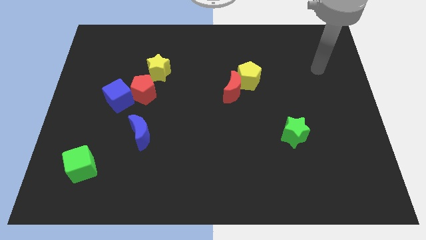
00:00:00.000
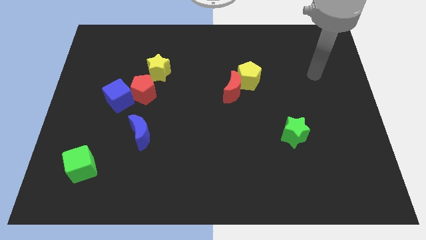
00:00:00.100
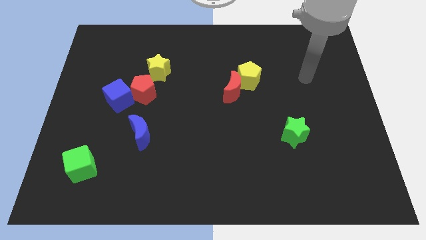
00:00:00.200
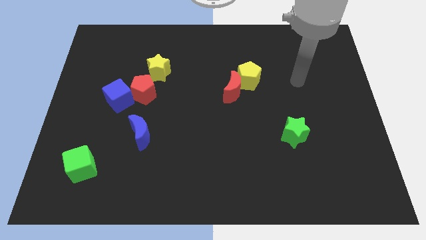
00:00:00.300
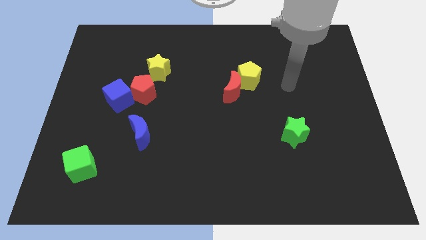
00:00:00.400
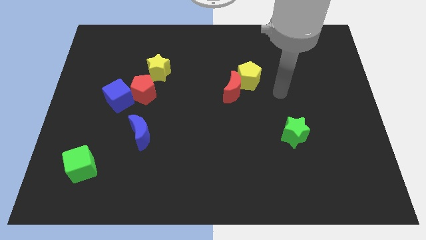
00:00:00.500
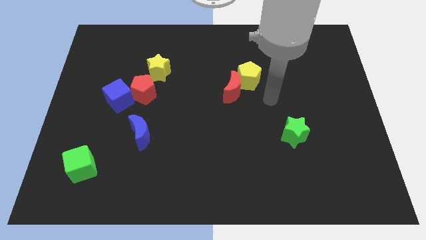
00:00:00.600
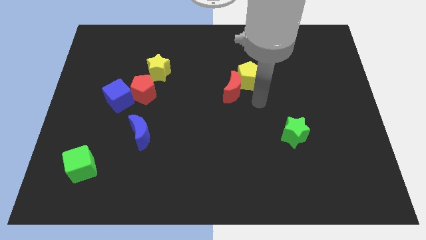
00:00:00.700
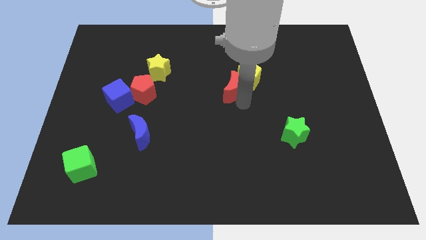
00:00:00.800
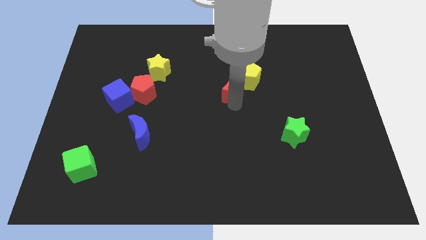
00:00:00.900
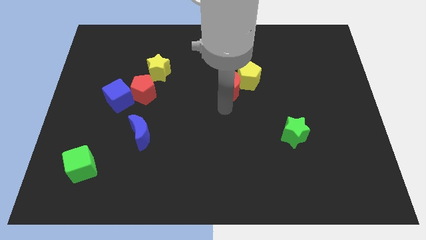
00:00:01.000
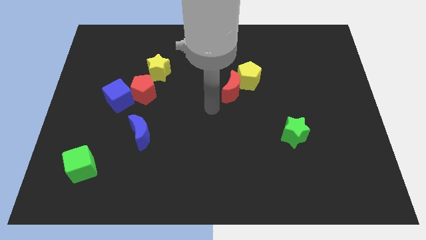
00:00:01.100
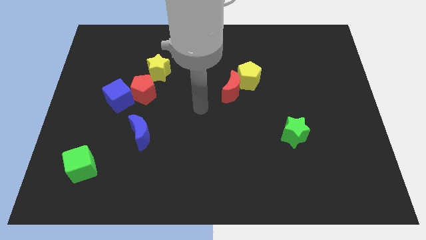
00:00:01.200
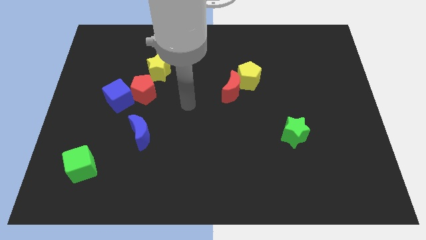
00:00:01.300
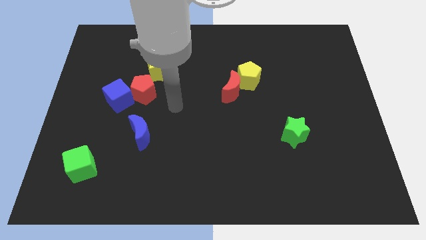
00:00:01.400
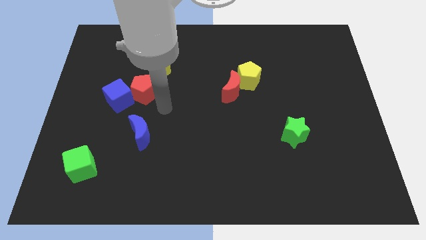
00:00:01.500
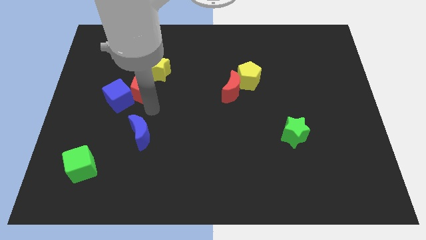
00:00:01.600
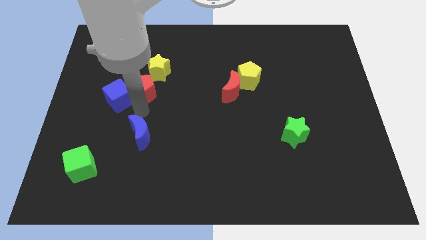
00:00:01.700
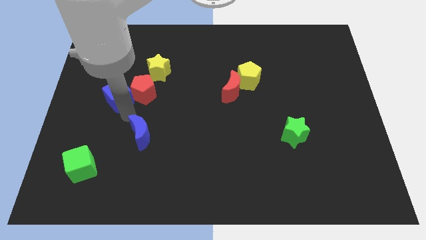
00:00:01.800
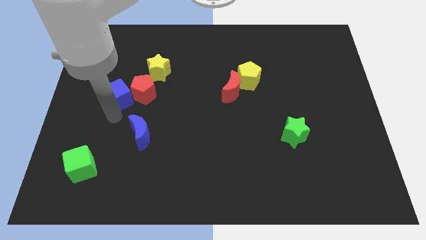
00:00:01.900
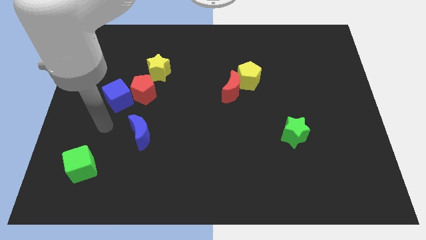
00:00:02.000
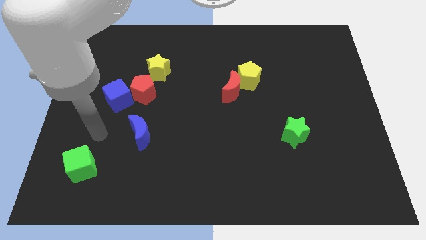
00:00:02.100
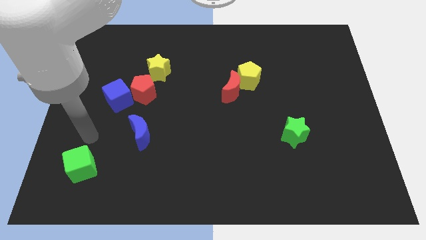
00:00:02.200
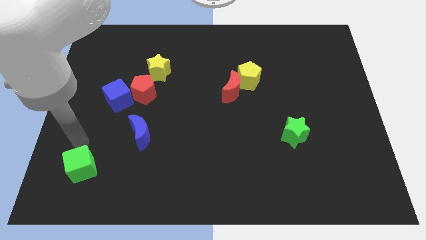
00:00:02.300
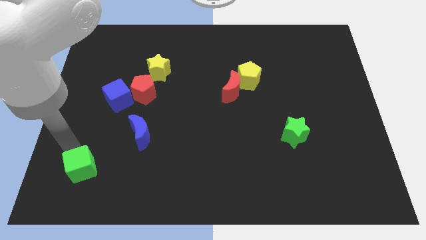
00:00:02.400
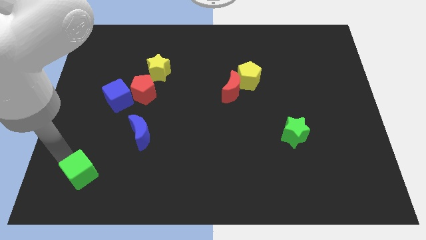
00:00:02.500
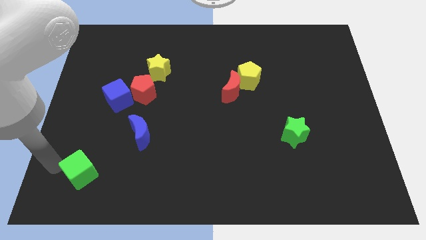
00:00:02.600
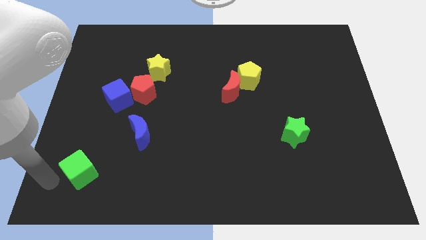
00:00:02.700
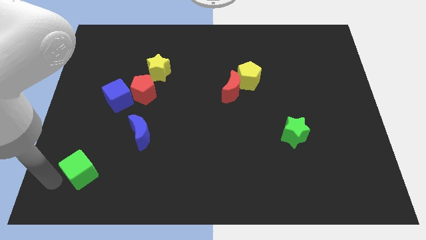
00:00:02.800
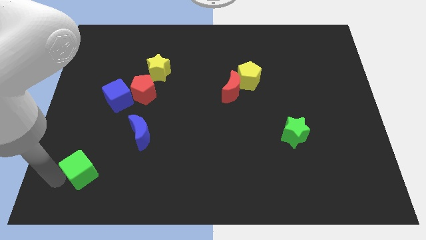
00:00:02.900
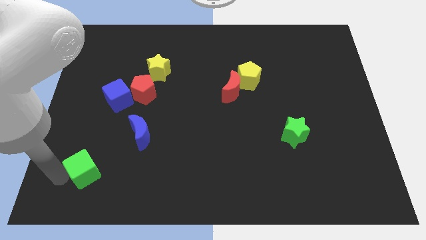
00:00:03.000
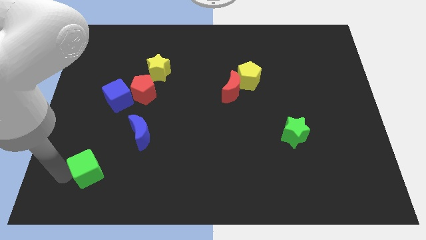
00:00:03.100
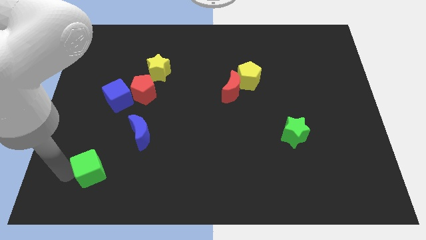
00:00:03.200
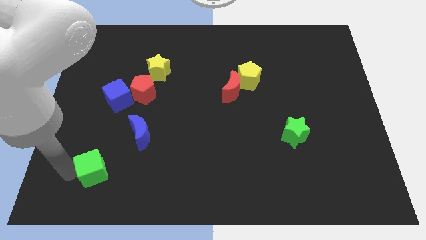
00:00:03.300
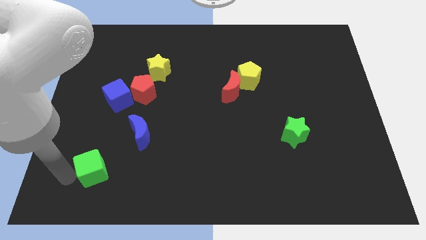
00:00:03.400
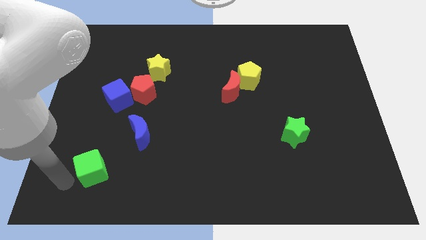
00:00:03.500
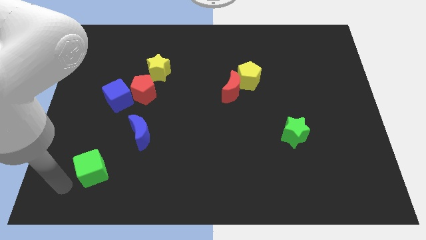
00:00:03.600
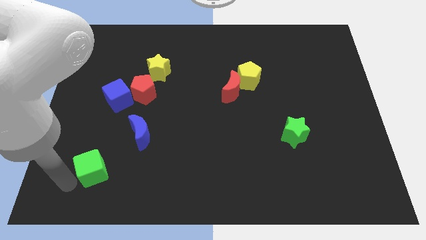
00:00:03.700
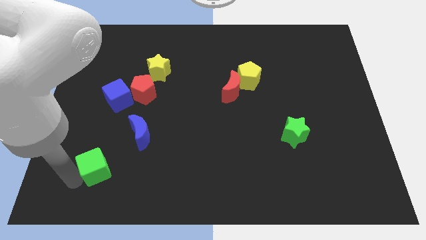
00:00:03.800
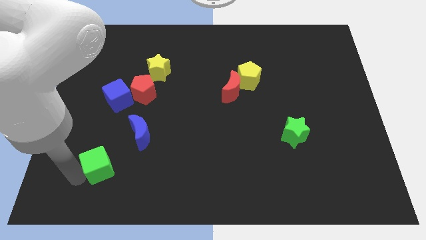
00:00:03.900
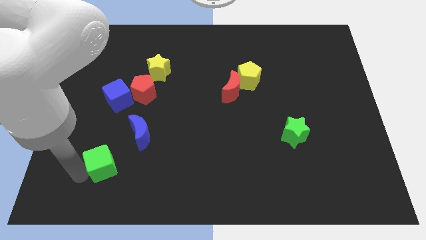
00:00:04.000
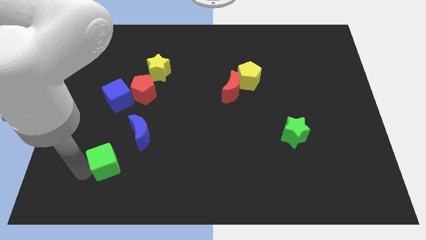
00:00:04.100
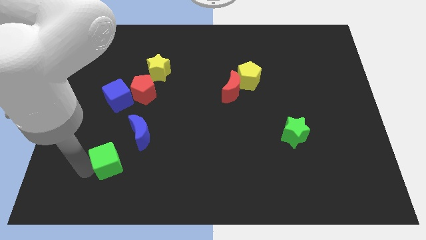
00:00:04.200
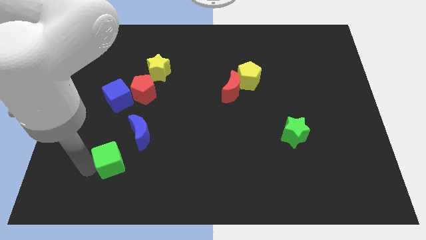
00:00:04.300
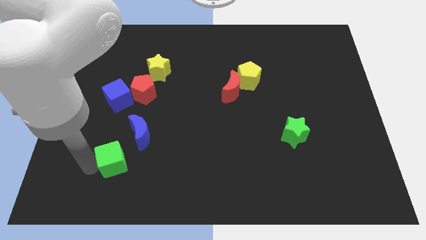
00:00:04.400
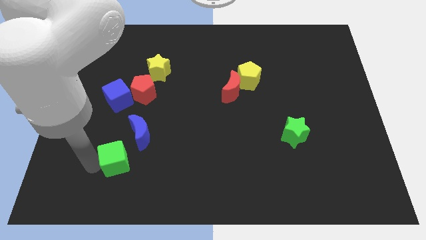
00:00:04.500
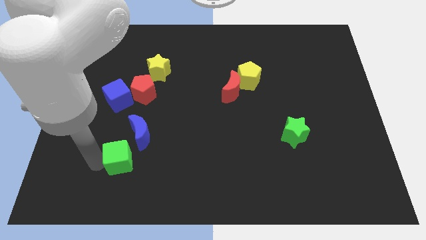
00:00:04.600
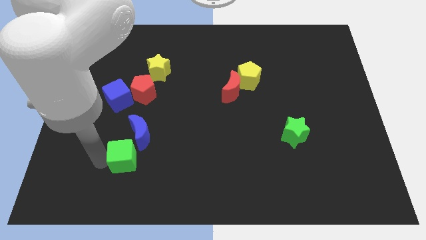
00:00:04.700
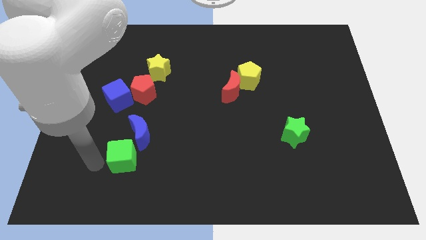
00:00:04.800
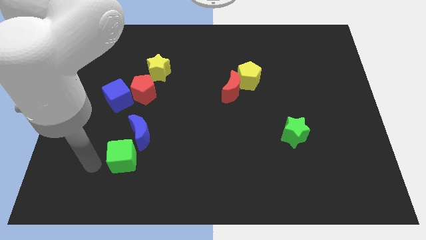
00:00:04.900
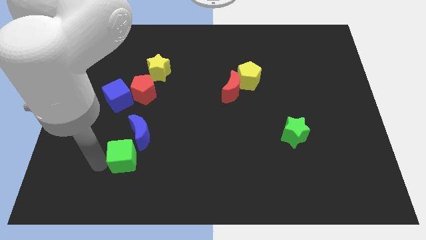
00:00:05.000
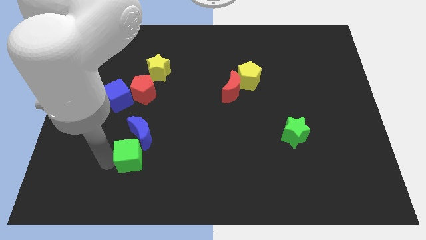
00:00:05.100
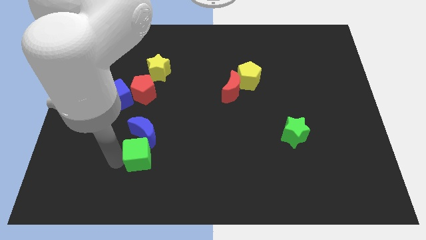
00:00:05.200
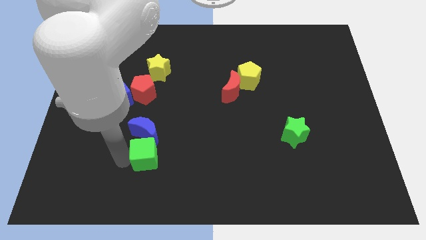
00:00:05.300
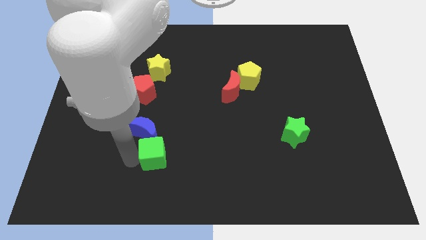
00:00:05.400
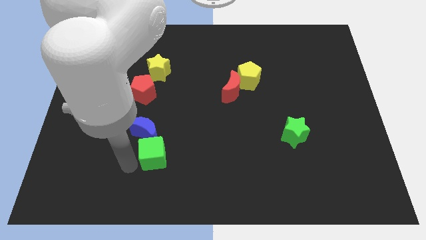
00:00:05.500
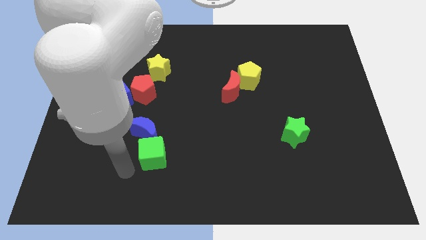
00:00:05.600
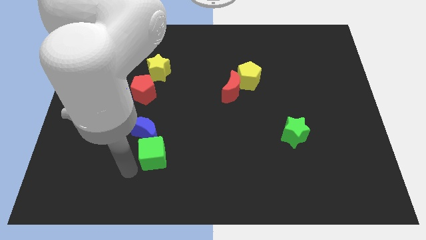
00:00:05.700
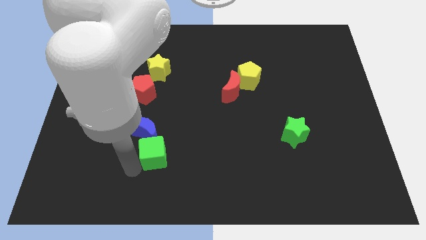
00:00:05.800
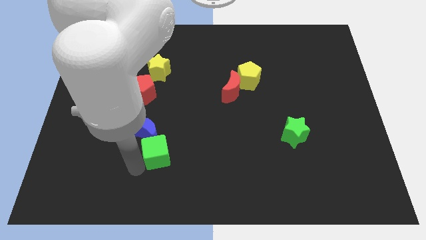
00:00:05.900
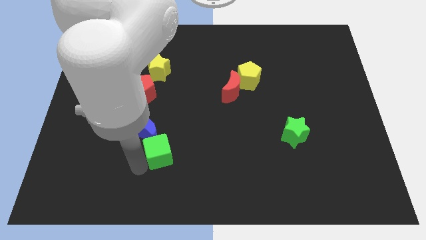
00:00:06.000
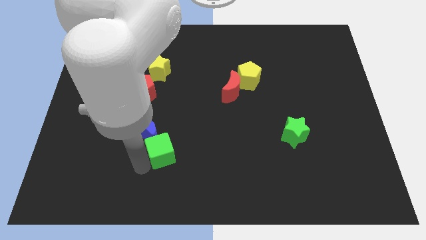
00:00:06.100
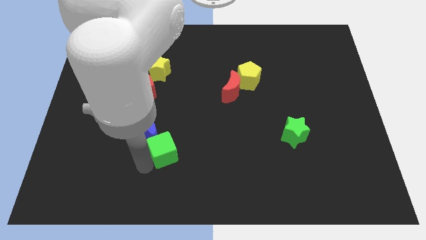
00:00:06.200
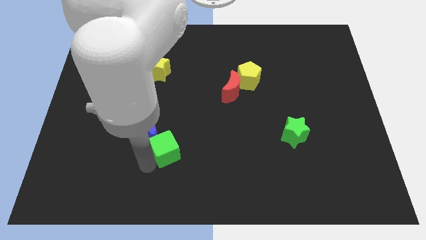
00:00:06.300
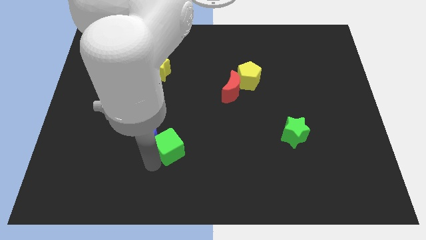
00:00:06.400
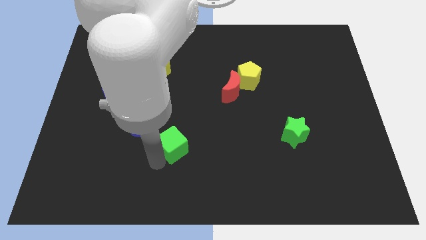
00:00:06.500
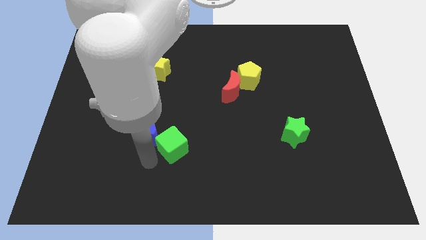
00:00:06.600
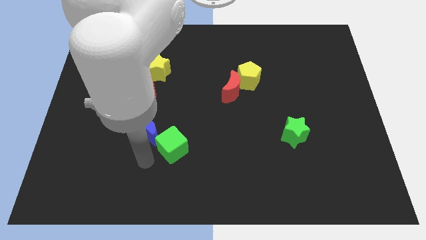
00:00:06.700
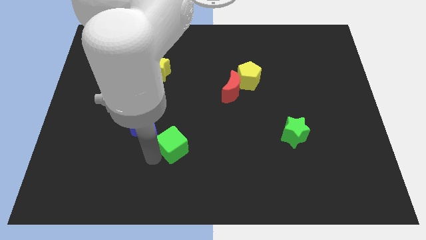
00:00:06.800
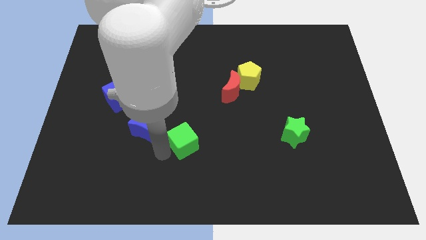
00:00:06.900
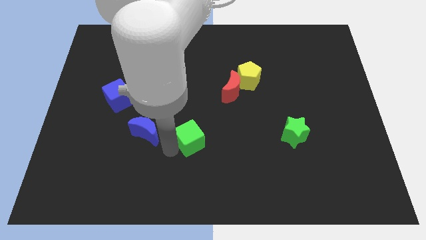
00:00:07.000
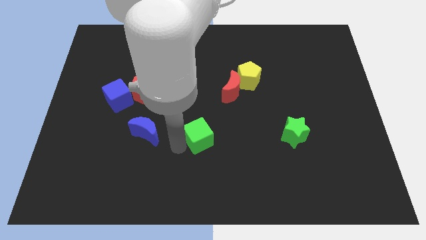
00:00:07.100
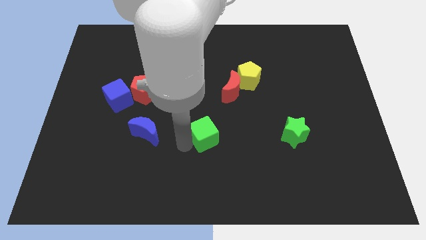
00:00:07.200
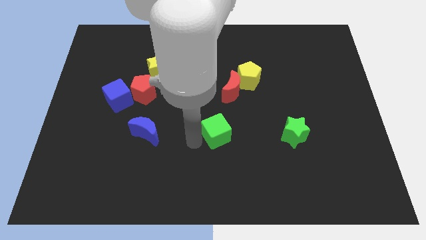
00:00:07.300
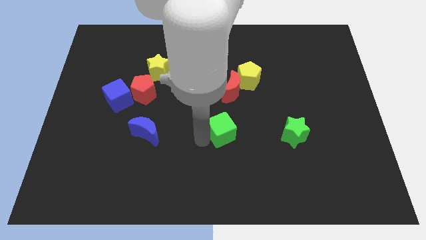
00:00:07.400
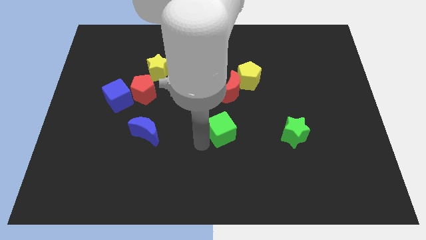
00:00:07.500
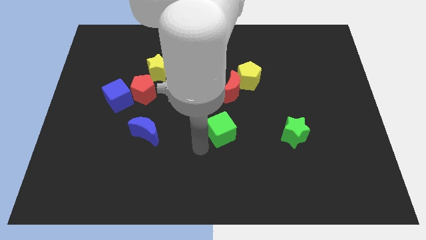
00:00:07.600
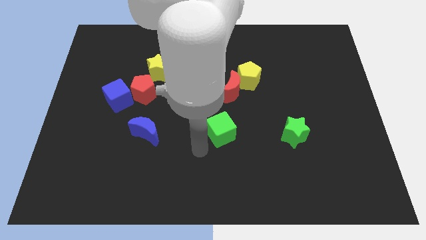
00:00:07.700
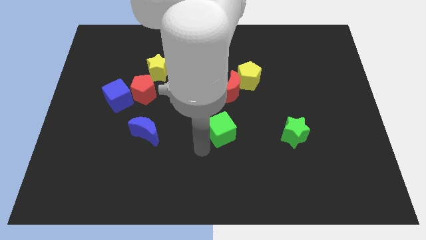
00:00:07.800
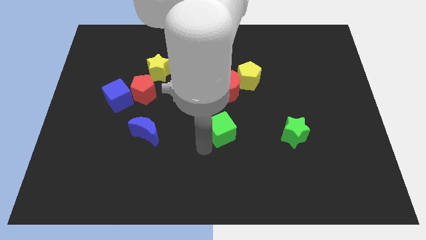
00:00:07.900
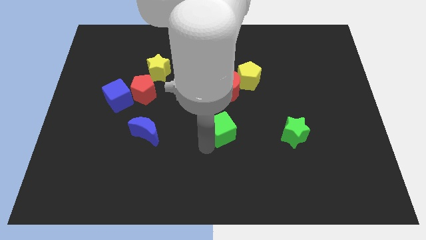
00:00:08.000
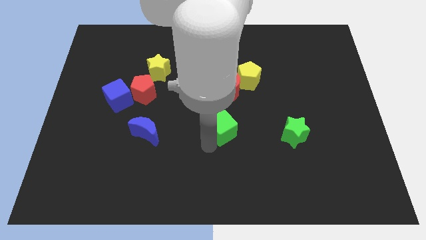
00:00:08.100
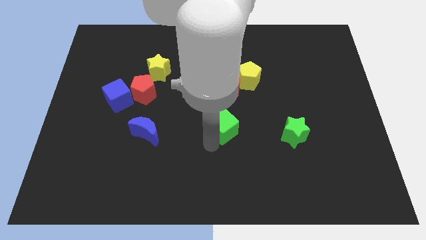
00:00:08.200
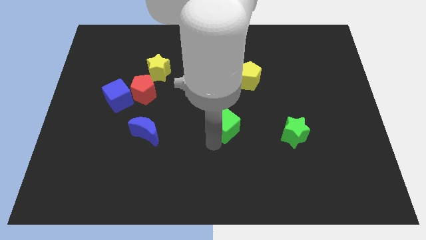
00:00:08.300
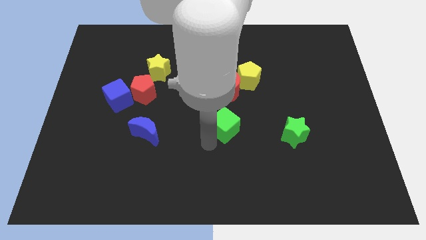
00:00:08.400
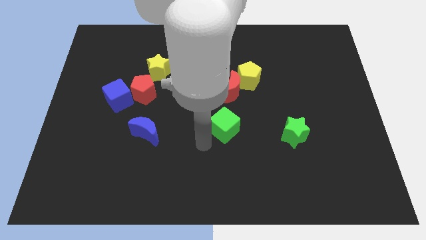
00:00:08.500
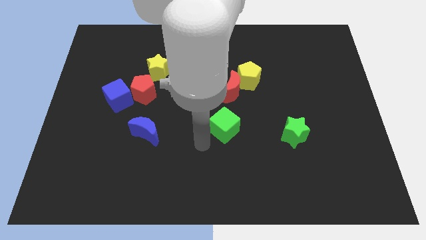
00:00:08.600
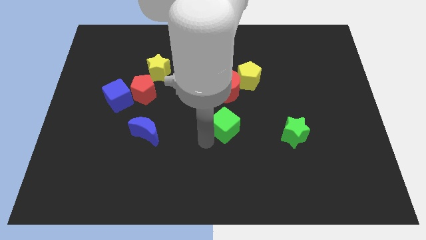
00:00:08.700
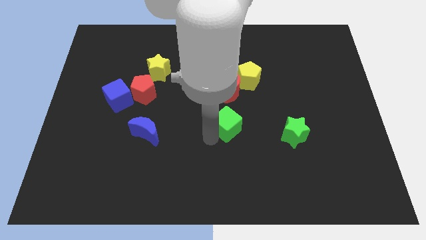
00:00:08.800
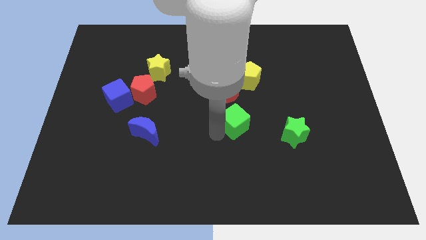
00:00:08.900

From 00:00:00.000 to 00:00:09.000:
put the green cube to the bottom side of the yellow pentagon
